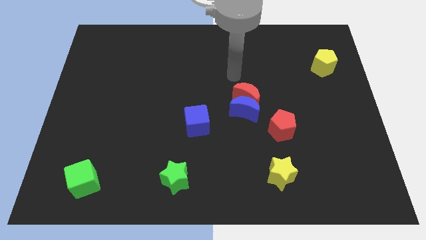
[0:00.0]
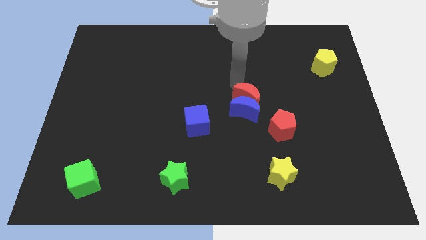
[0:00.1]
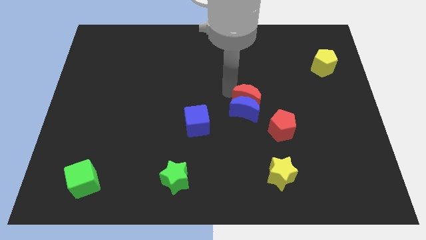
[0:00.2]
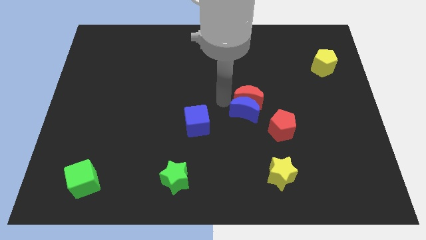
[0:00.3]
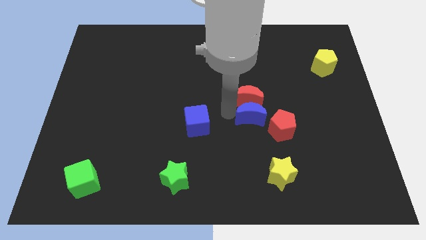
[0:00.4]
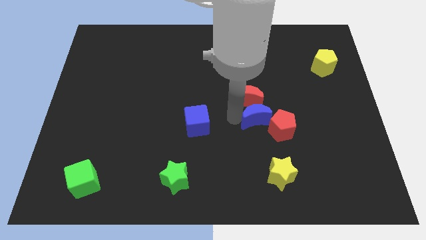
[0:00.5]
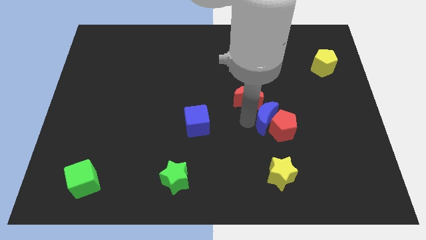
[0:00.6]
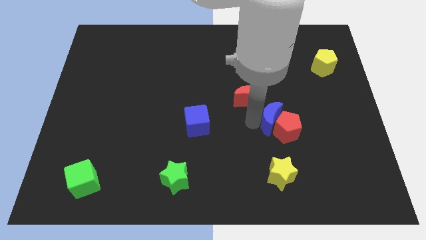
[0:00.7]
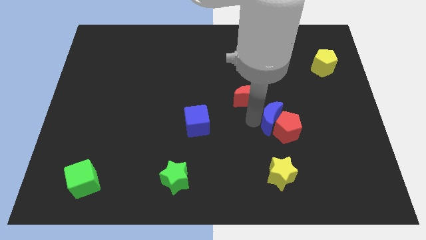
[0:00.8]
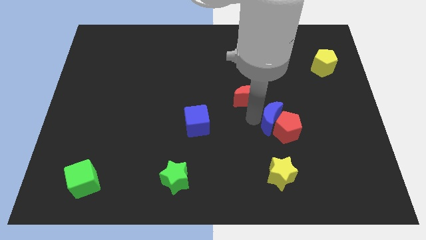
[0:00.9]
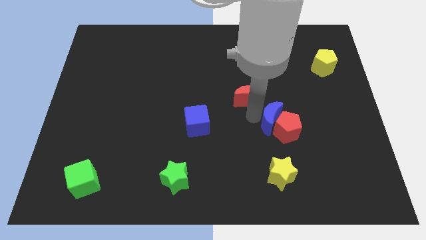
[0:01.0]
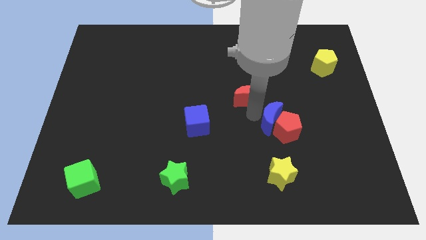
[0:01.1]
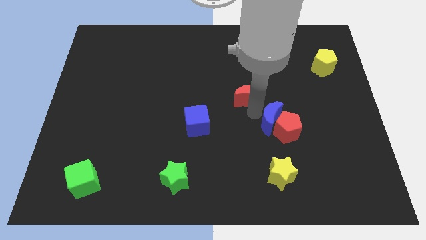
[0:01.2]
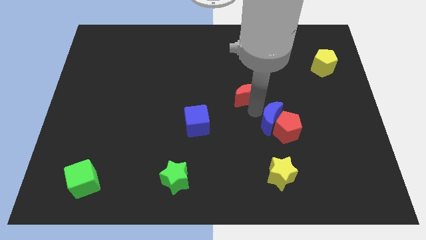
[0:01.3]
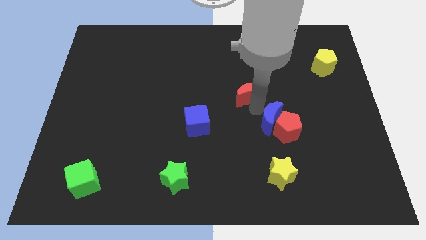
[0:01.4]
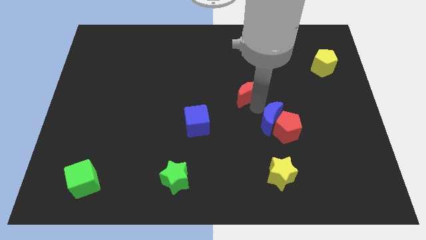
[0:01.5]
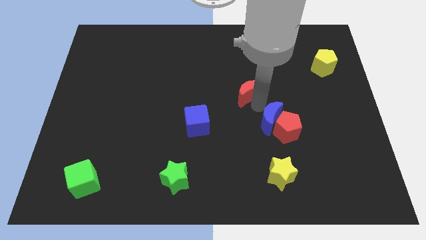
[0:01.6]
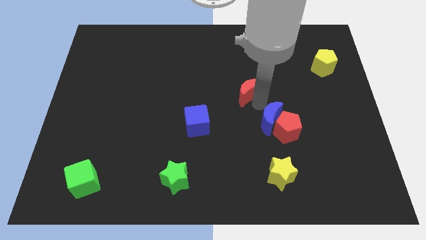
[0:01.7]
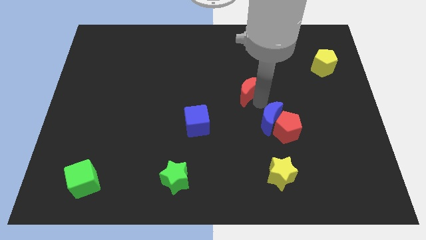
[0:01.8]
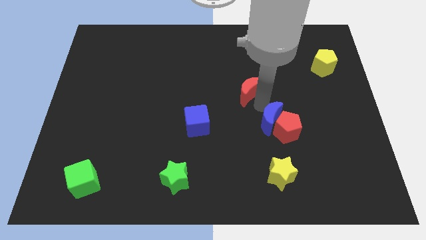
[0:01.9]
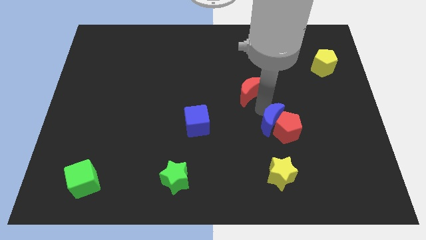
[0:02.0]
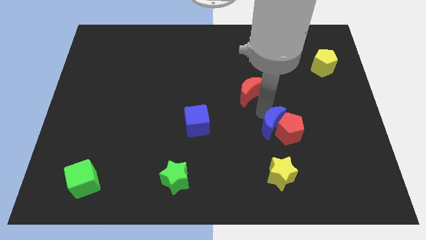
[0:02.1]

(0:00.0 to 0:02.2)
separate the red moon from the blue moon

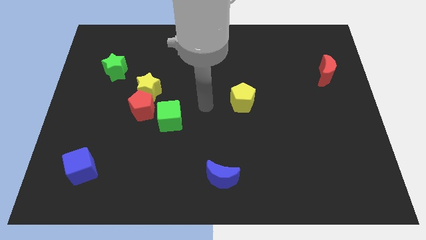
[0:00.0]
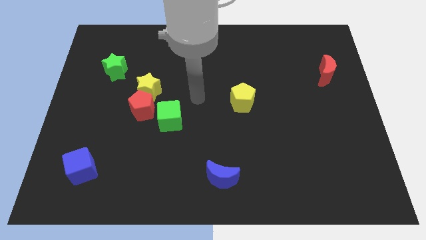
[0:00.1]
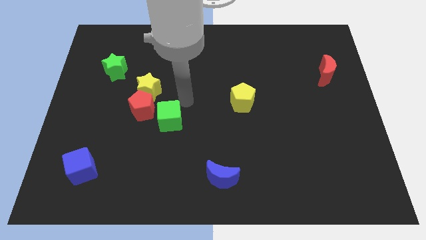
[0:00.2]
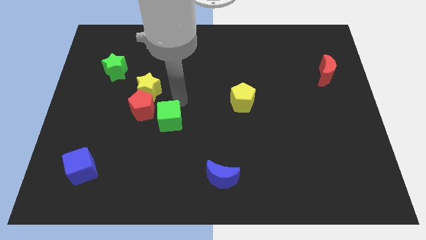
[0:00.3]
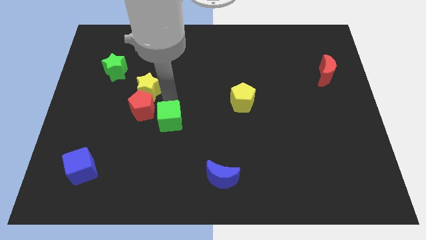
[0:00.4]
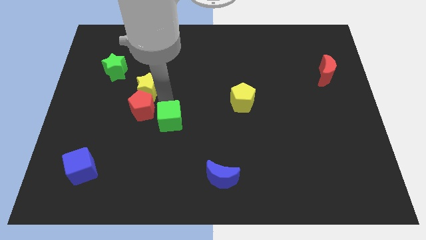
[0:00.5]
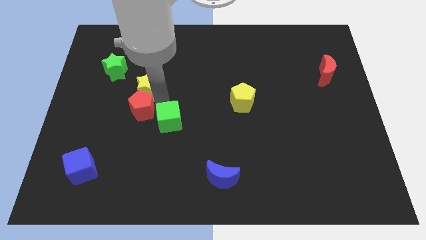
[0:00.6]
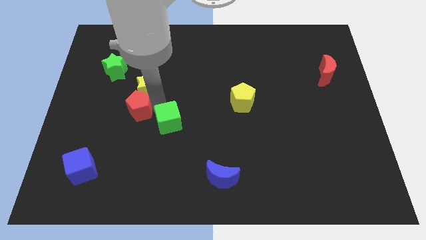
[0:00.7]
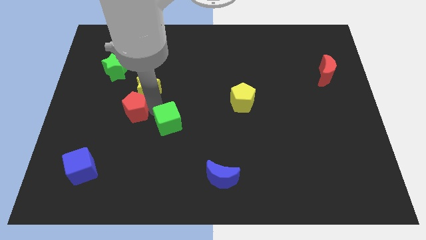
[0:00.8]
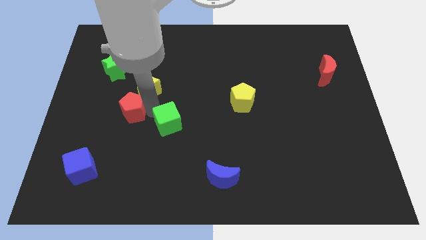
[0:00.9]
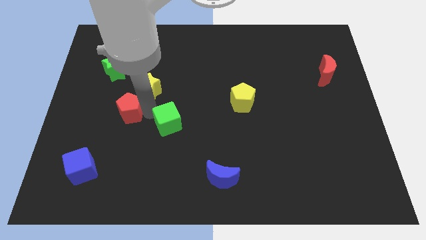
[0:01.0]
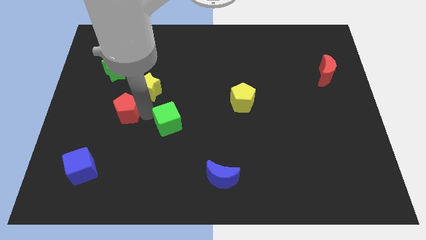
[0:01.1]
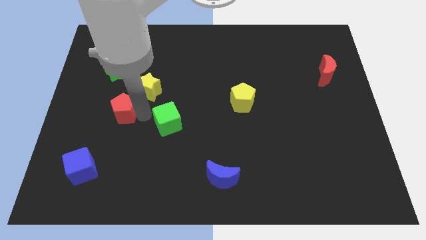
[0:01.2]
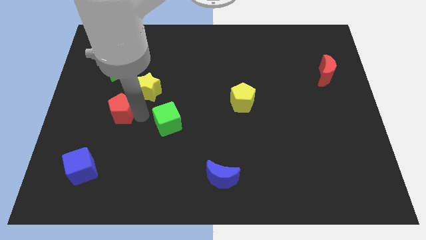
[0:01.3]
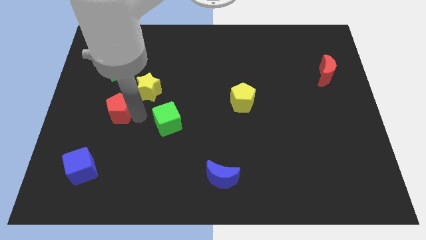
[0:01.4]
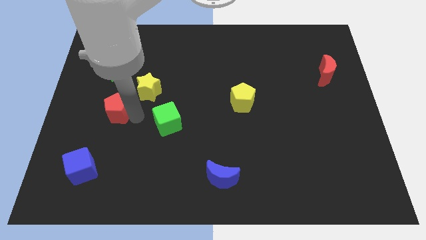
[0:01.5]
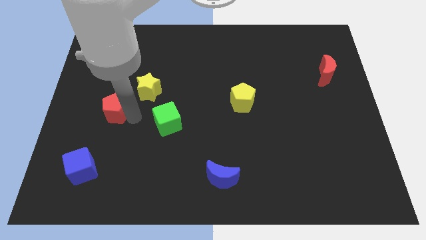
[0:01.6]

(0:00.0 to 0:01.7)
move the red pentagon away from the yellow star and green cube

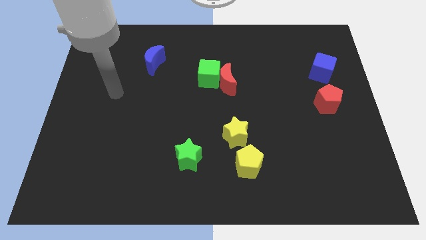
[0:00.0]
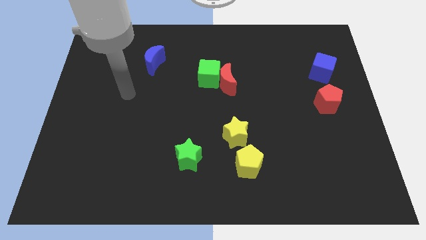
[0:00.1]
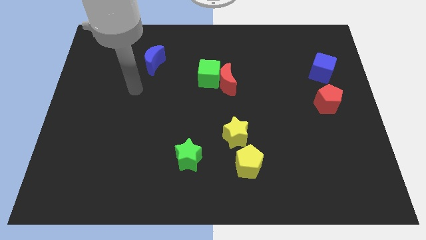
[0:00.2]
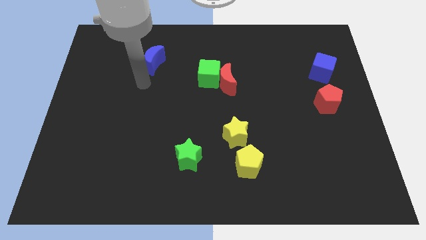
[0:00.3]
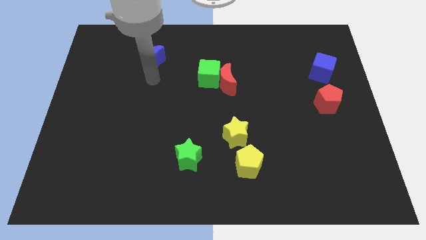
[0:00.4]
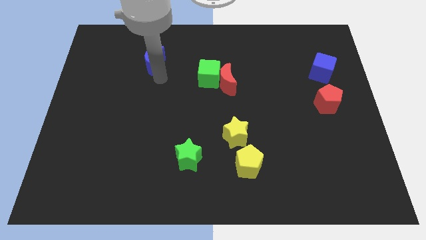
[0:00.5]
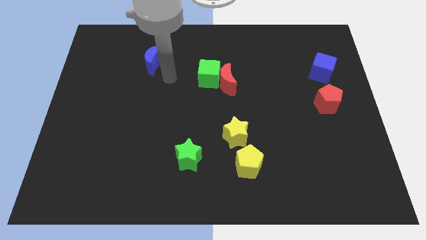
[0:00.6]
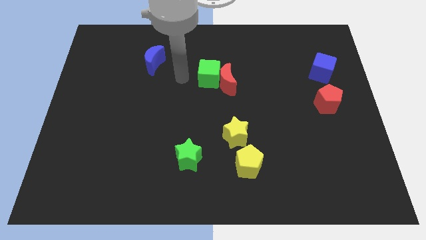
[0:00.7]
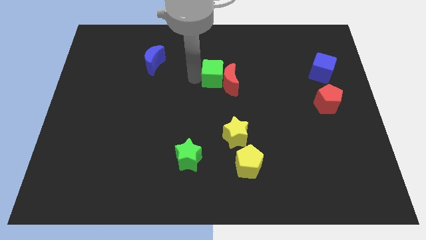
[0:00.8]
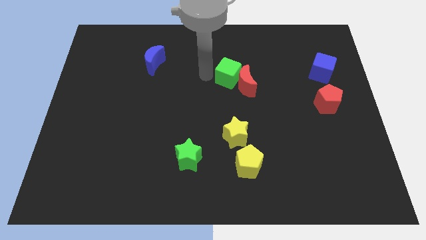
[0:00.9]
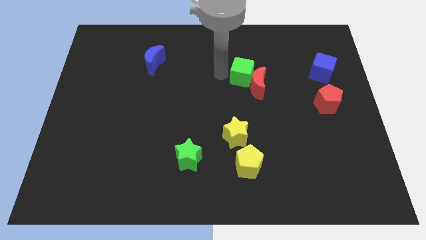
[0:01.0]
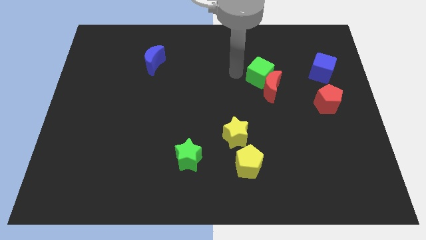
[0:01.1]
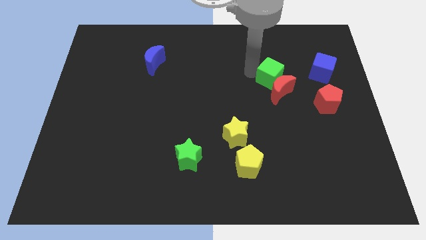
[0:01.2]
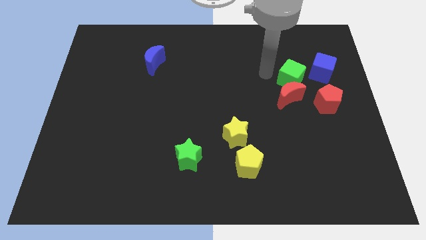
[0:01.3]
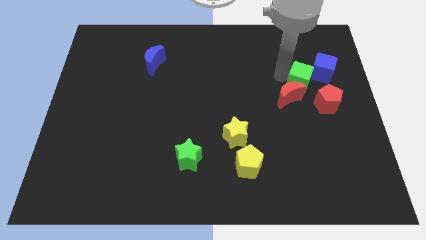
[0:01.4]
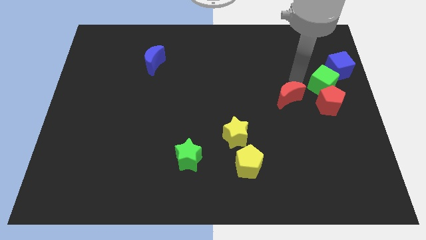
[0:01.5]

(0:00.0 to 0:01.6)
pull the red moon apart from the green cube

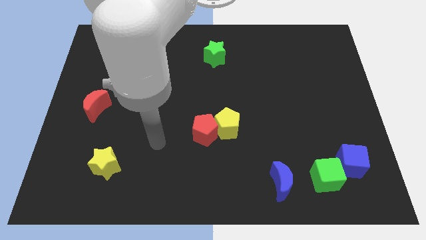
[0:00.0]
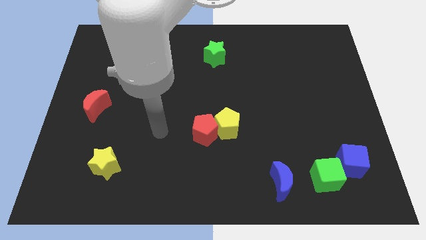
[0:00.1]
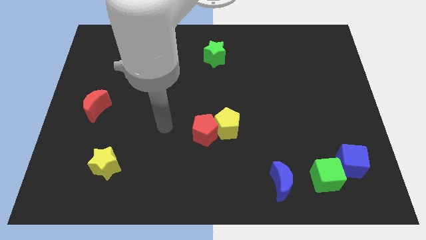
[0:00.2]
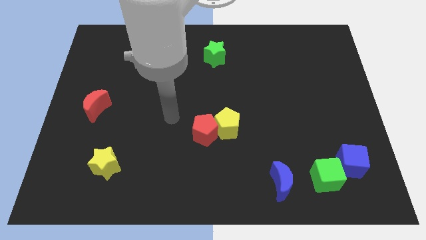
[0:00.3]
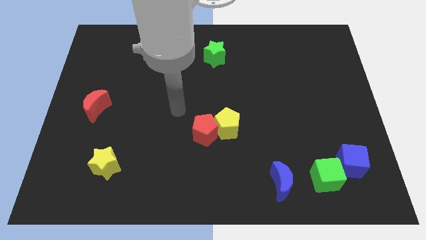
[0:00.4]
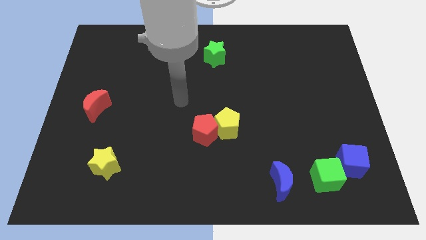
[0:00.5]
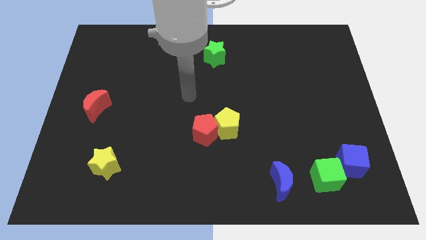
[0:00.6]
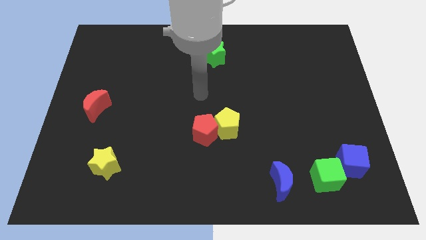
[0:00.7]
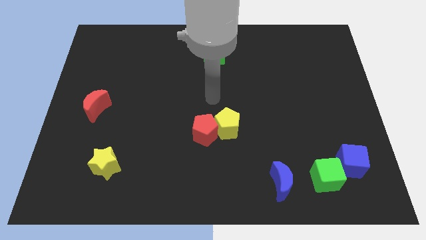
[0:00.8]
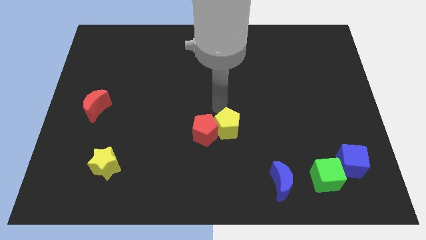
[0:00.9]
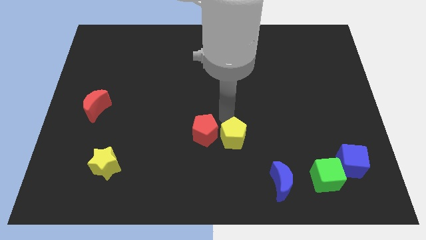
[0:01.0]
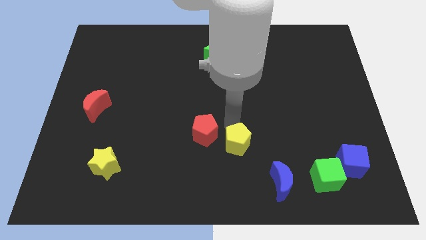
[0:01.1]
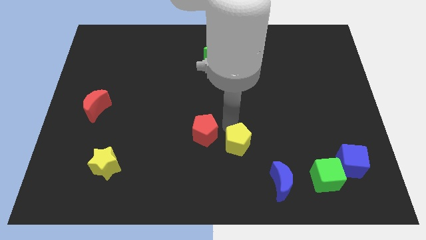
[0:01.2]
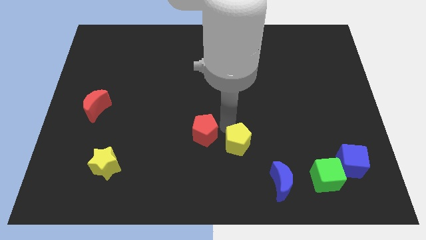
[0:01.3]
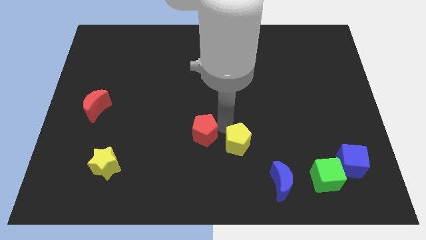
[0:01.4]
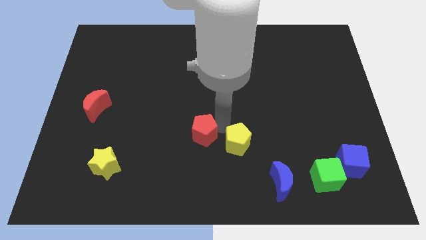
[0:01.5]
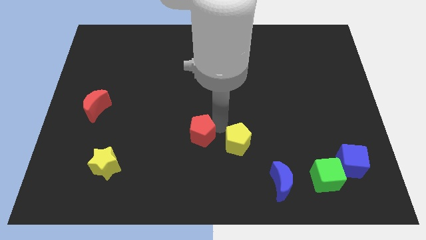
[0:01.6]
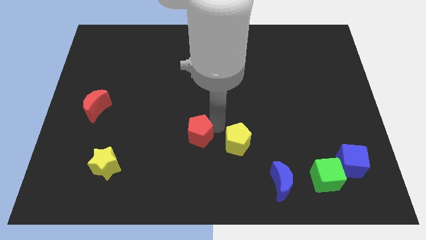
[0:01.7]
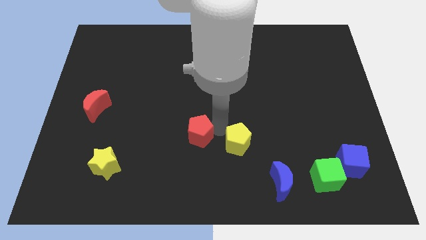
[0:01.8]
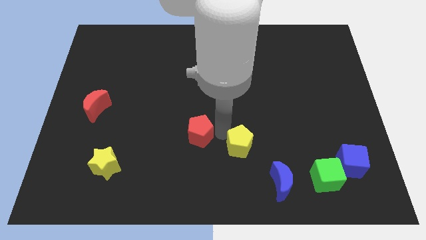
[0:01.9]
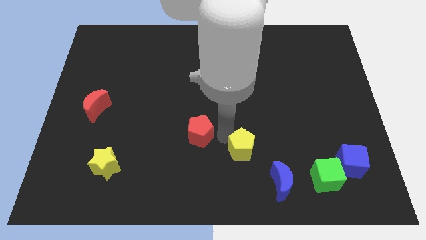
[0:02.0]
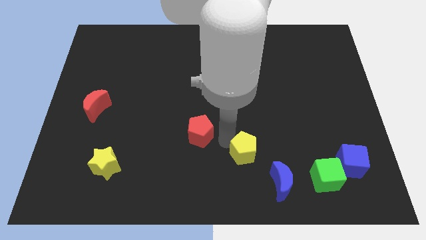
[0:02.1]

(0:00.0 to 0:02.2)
pull the red pentagon apart from the yellow pentagon

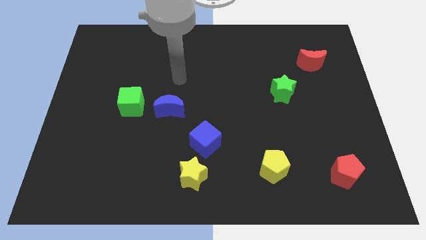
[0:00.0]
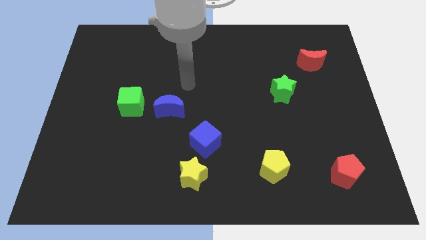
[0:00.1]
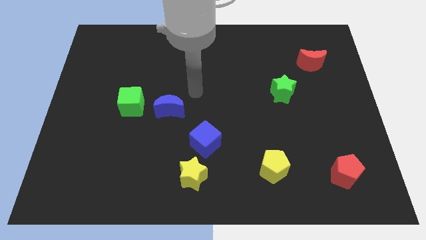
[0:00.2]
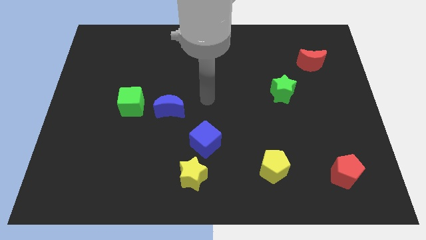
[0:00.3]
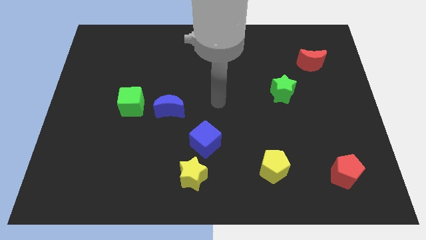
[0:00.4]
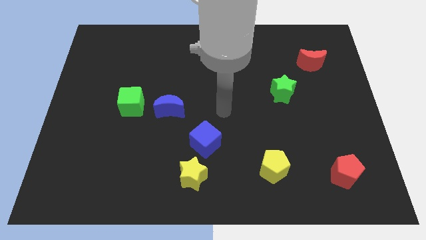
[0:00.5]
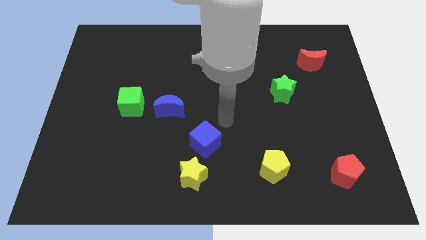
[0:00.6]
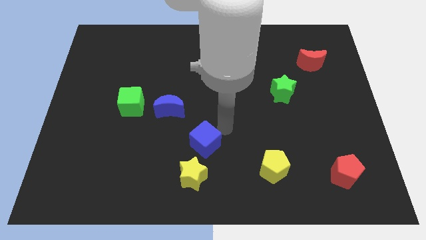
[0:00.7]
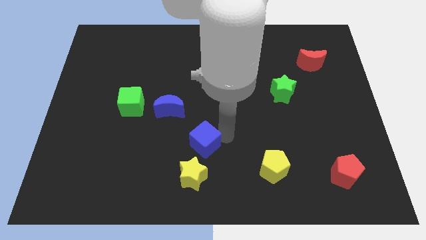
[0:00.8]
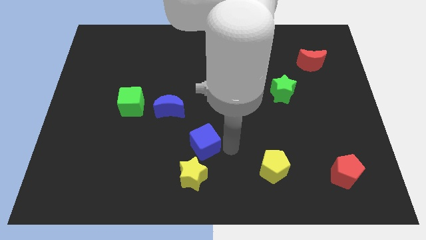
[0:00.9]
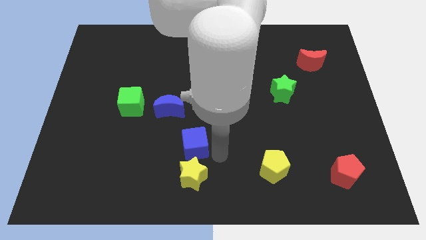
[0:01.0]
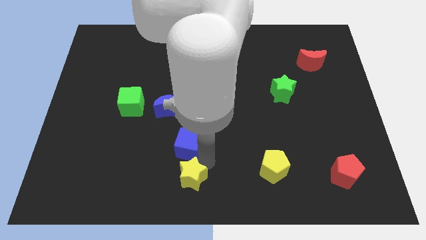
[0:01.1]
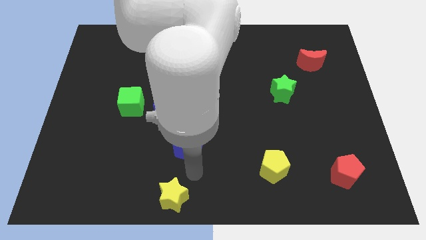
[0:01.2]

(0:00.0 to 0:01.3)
move the blue cube away from the yellow star

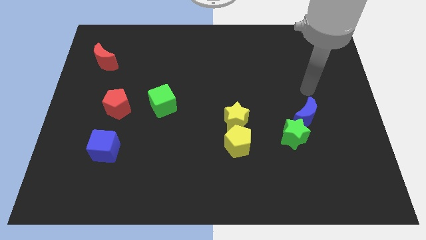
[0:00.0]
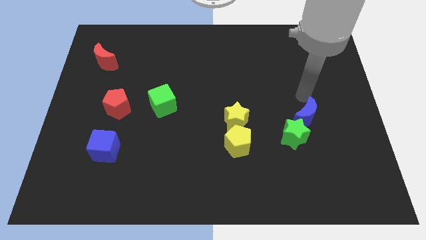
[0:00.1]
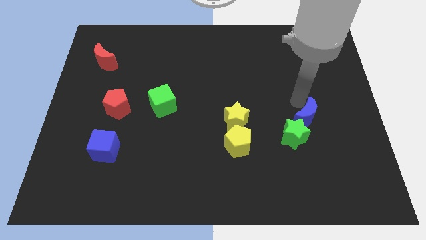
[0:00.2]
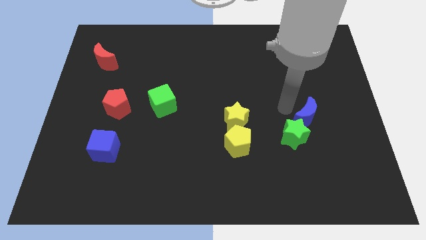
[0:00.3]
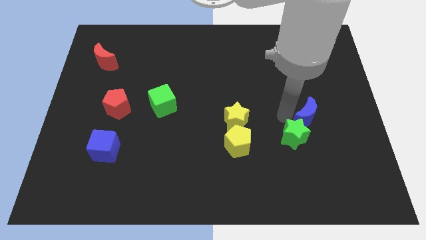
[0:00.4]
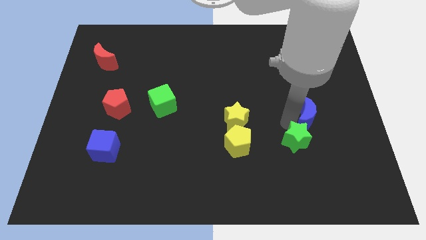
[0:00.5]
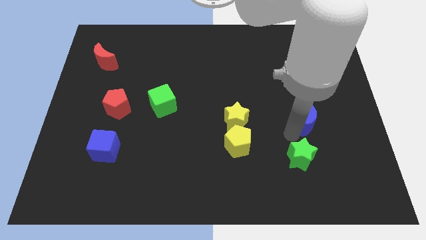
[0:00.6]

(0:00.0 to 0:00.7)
move the blue moon away from the green star
